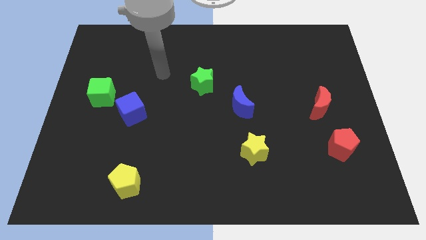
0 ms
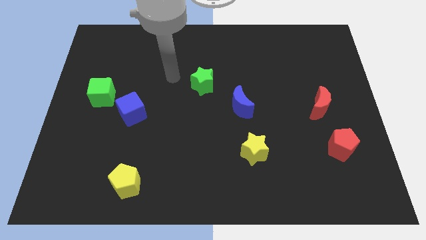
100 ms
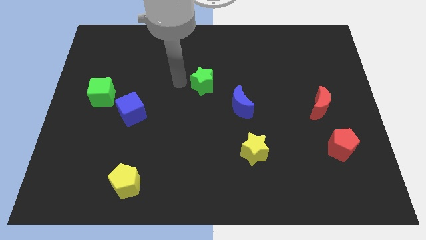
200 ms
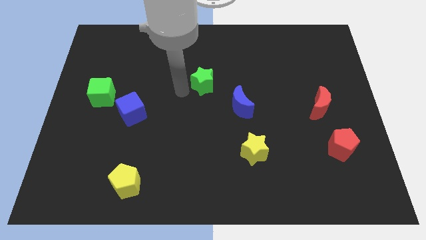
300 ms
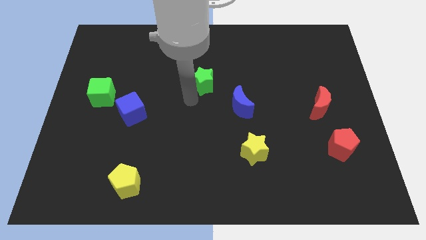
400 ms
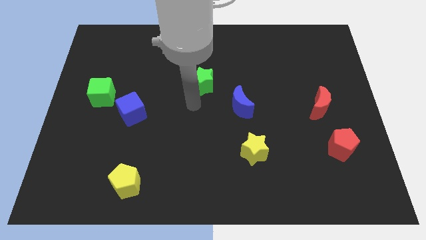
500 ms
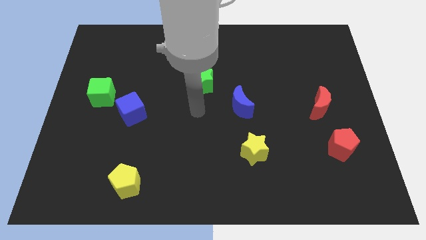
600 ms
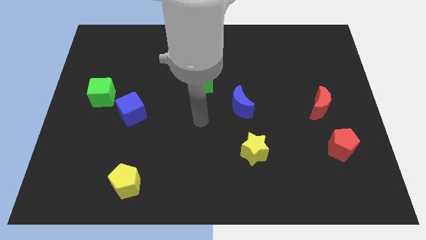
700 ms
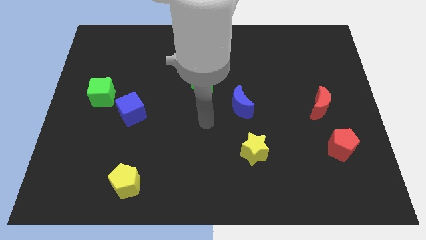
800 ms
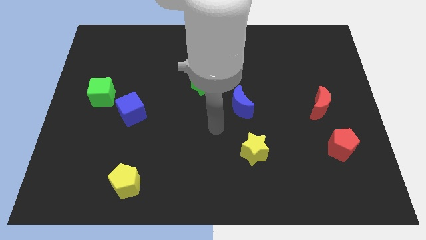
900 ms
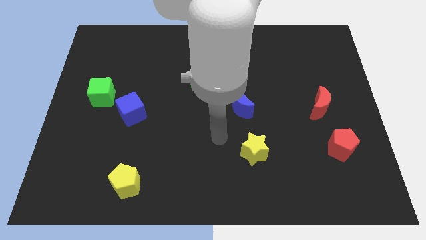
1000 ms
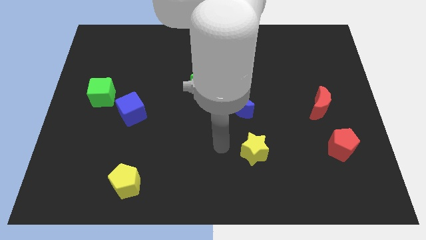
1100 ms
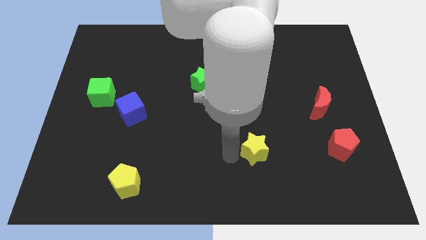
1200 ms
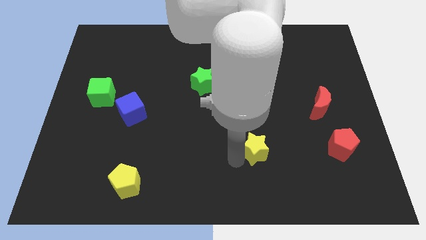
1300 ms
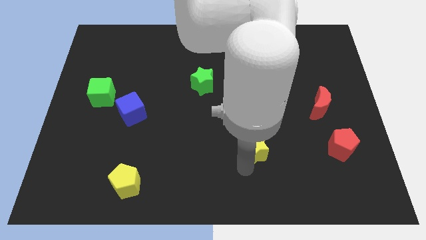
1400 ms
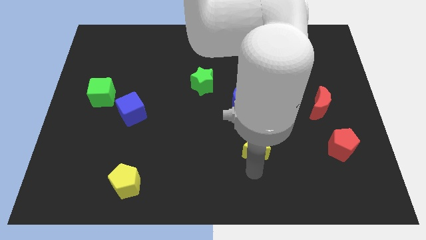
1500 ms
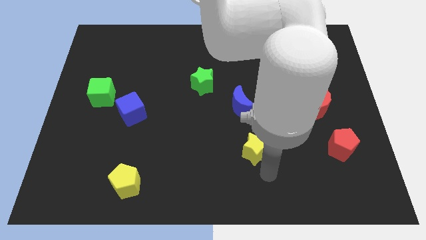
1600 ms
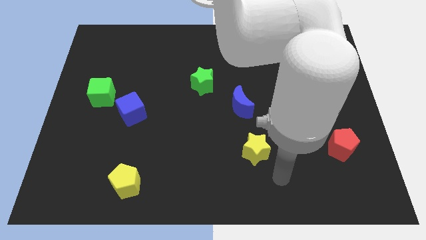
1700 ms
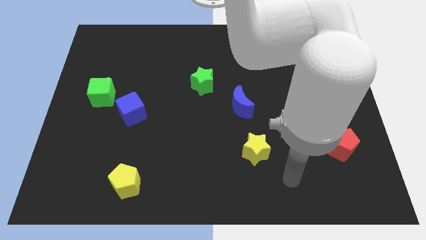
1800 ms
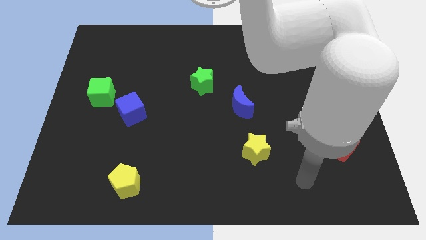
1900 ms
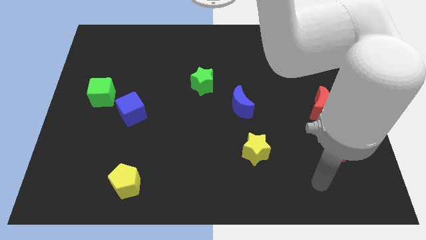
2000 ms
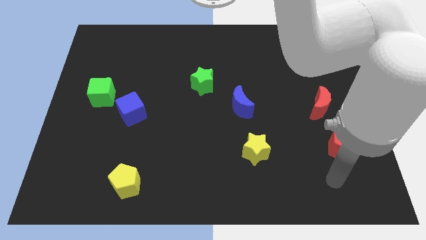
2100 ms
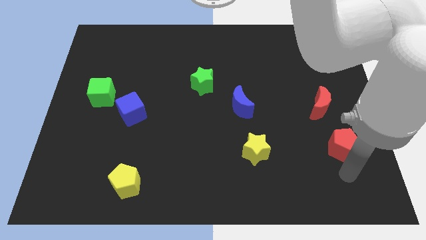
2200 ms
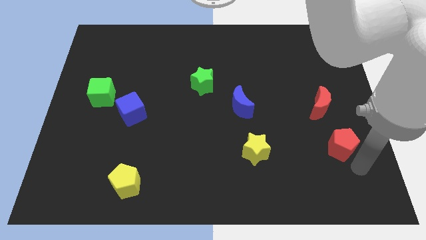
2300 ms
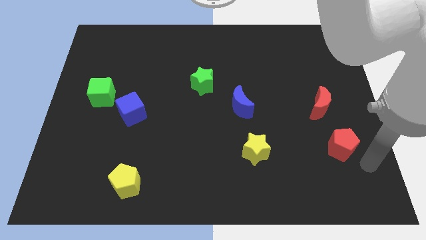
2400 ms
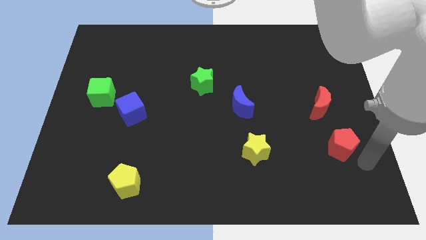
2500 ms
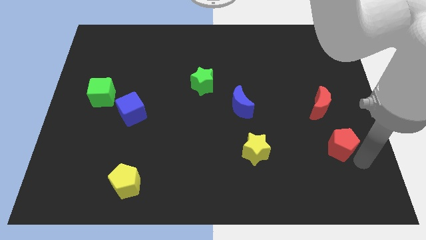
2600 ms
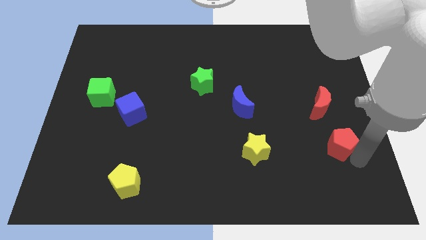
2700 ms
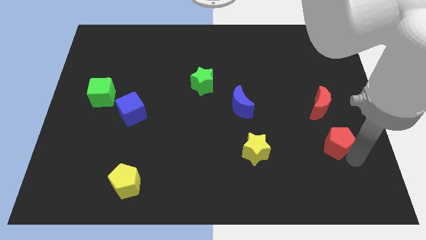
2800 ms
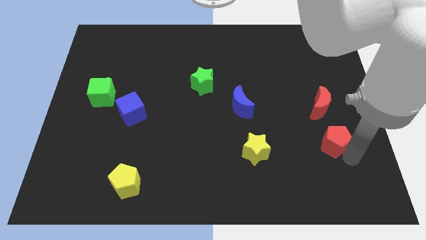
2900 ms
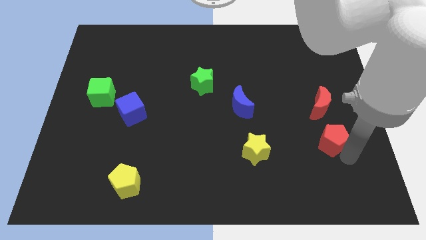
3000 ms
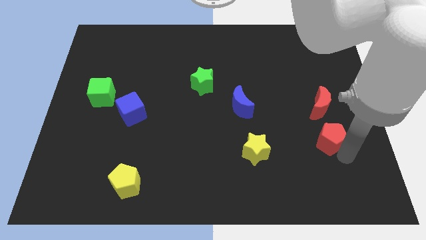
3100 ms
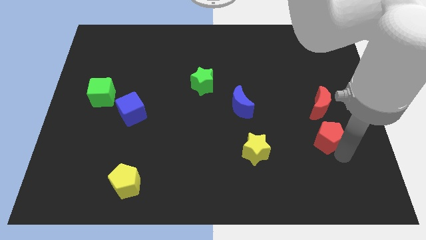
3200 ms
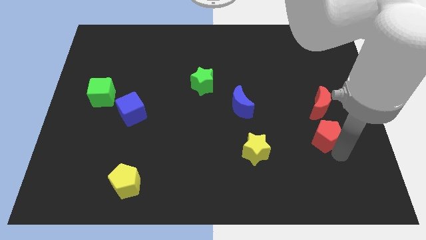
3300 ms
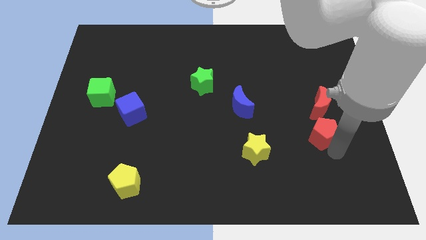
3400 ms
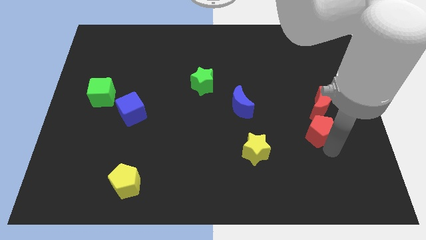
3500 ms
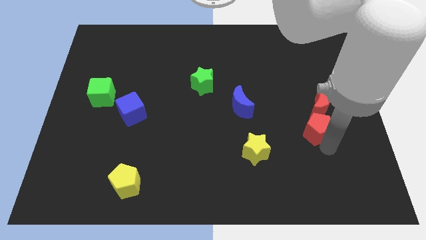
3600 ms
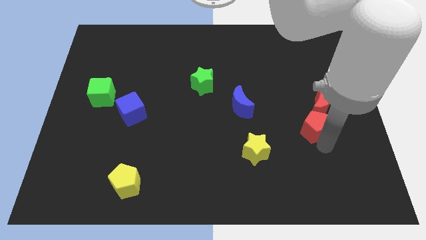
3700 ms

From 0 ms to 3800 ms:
slide the red pentagon a little bit upwards and to the left

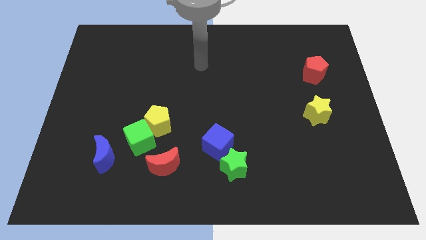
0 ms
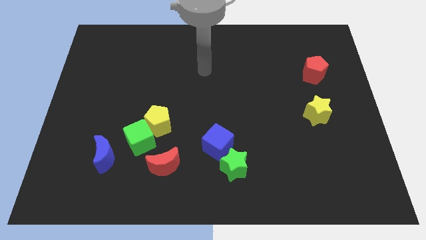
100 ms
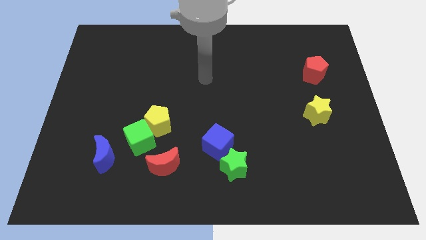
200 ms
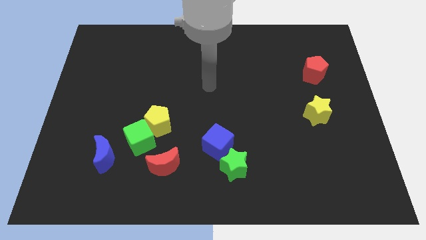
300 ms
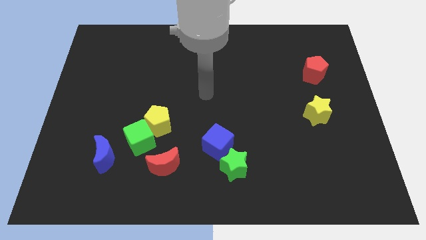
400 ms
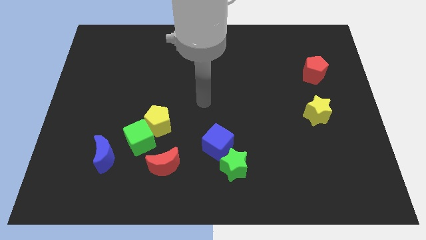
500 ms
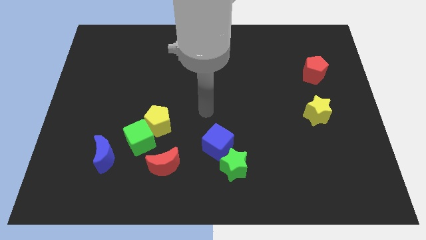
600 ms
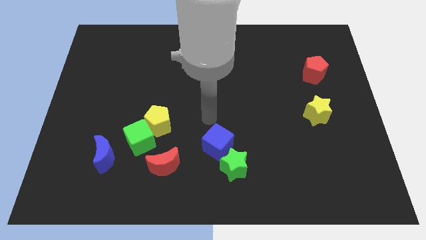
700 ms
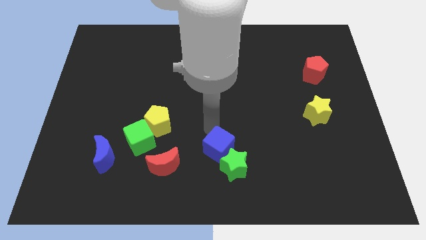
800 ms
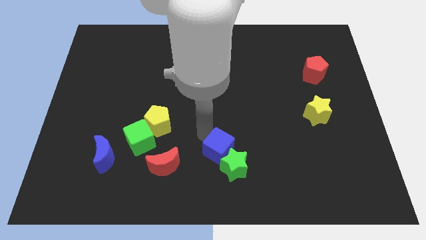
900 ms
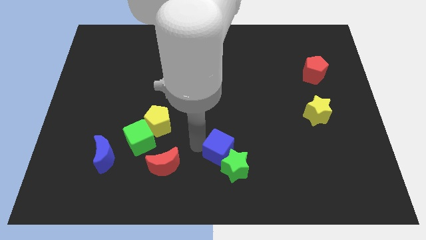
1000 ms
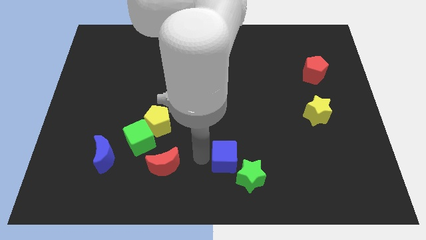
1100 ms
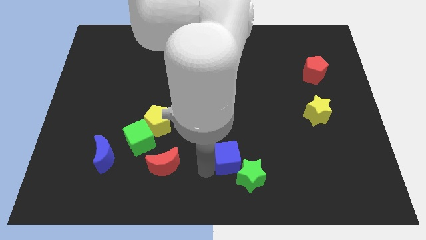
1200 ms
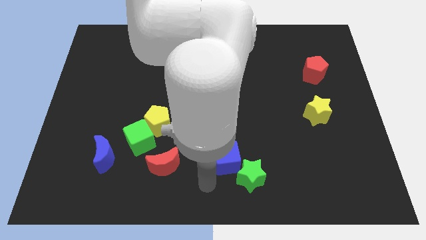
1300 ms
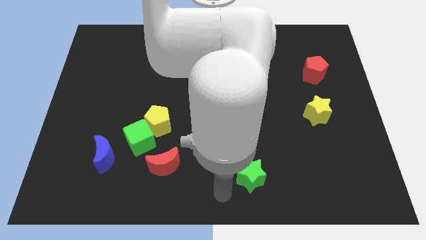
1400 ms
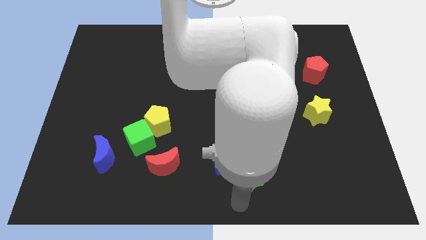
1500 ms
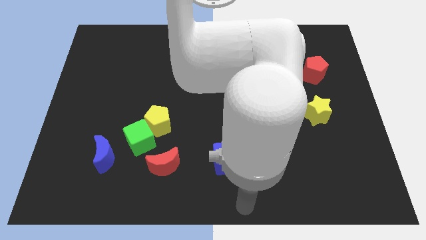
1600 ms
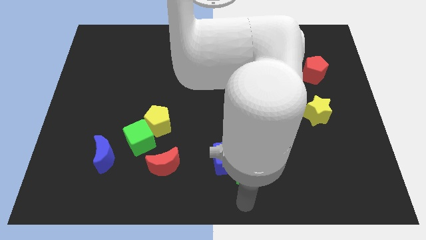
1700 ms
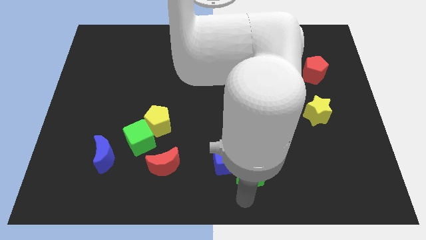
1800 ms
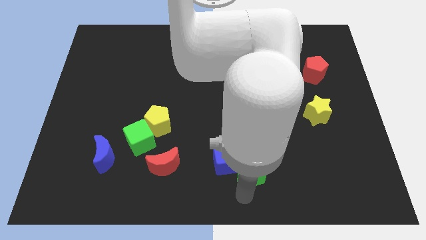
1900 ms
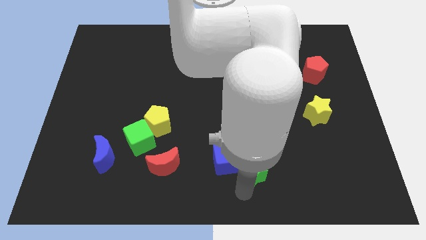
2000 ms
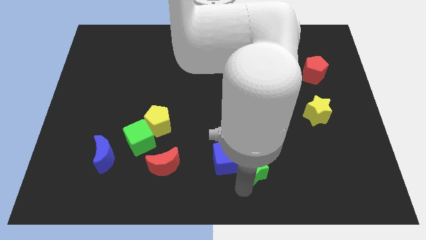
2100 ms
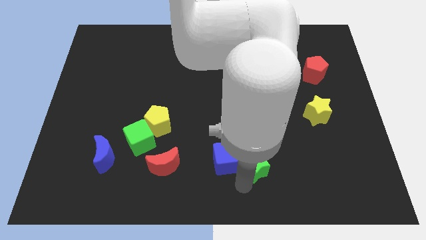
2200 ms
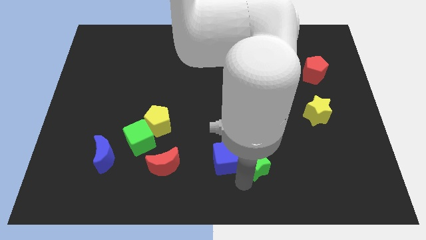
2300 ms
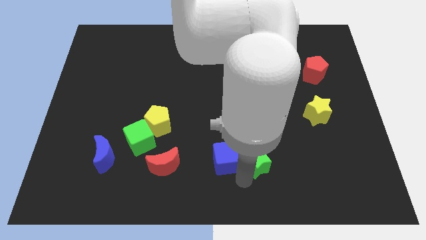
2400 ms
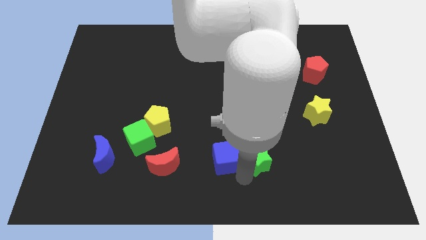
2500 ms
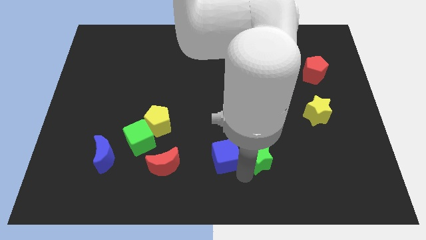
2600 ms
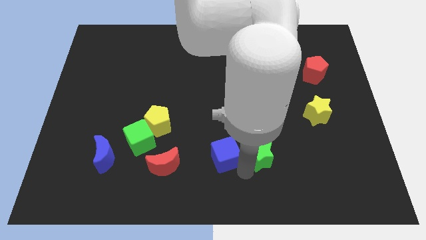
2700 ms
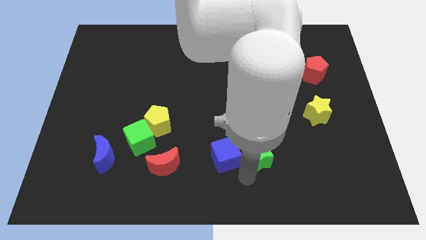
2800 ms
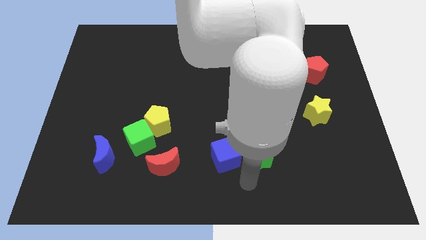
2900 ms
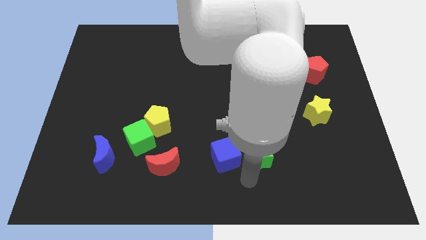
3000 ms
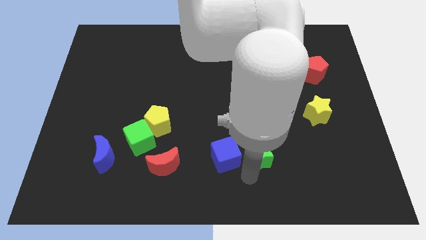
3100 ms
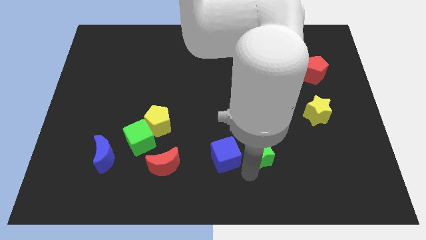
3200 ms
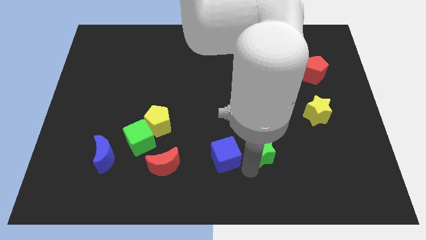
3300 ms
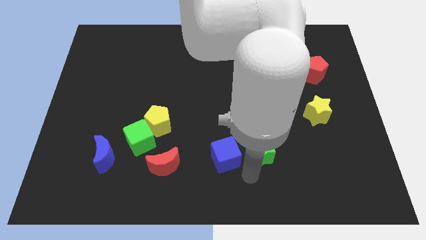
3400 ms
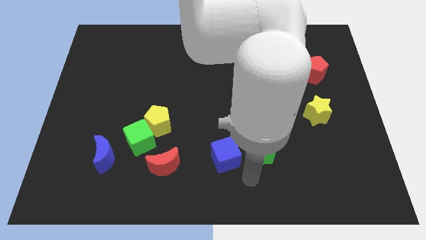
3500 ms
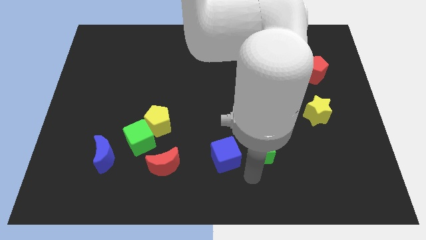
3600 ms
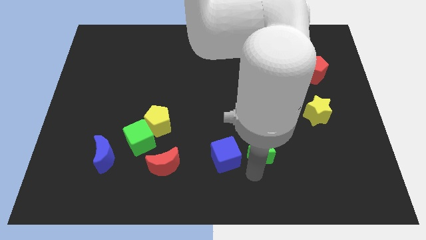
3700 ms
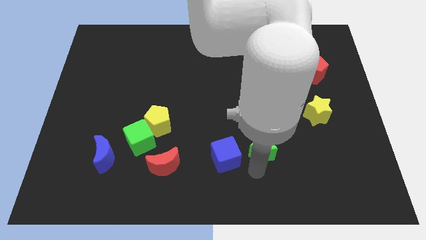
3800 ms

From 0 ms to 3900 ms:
slightly push the green star diagonally upwards and to the right
